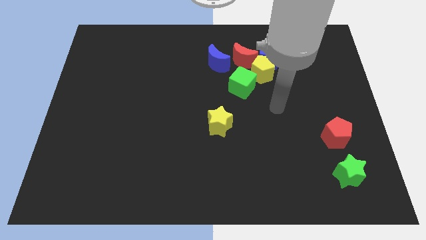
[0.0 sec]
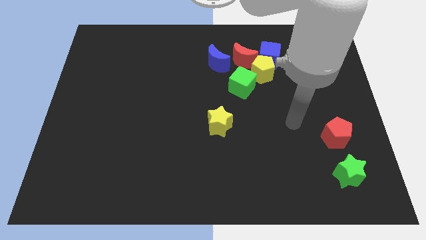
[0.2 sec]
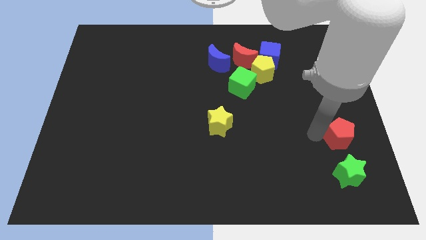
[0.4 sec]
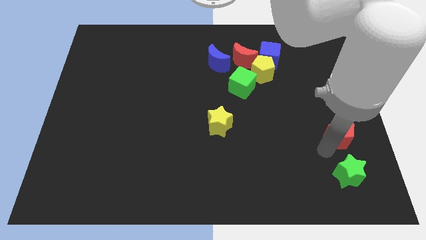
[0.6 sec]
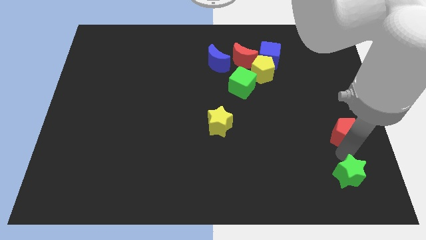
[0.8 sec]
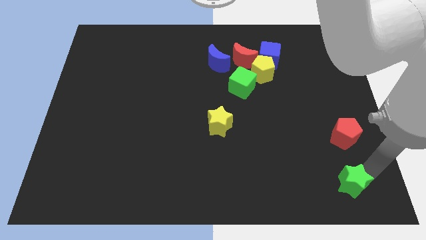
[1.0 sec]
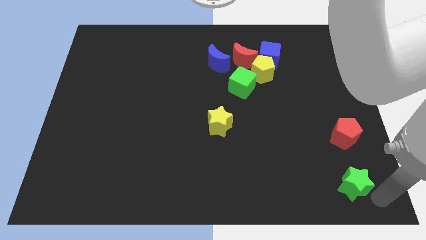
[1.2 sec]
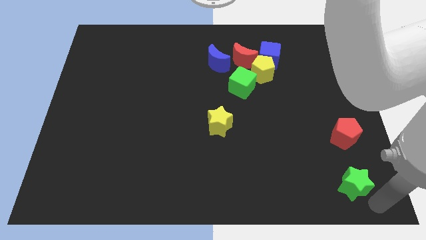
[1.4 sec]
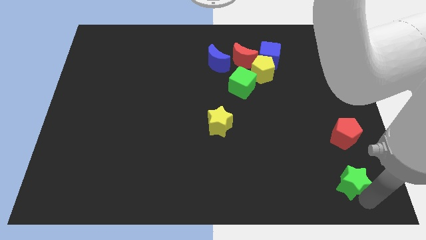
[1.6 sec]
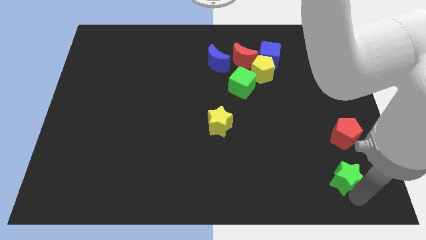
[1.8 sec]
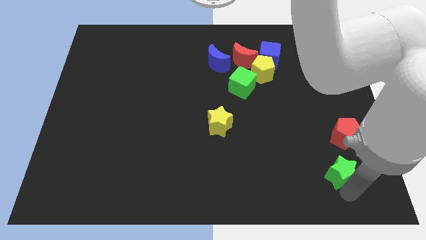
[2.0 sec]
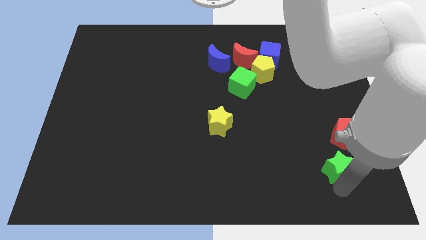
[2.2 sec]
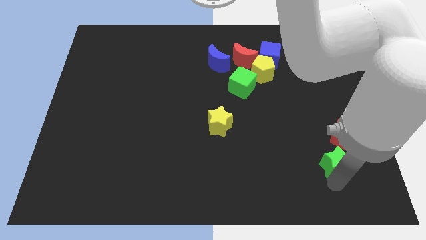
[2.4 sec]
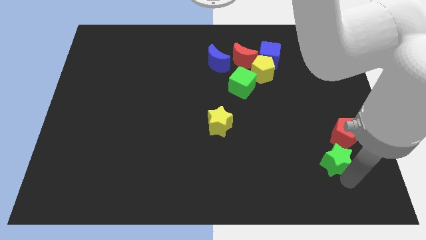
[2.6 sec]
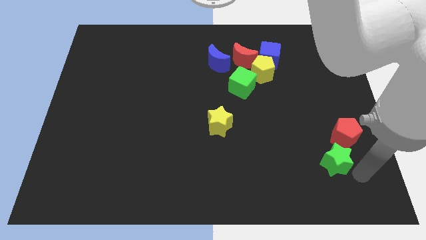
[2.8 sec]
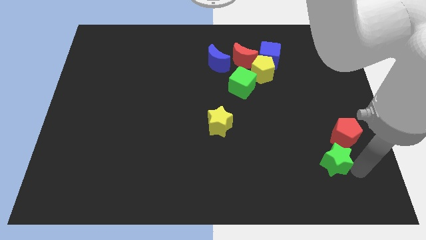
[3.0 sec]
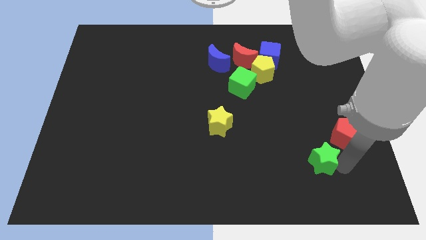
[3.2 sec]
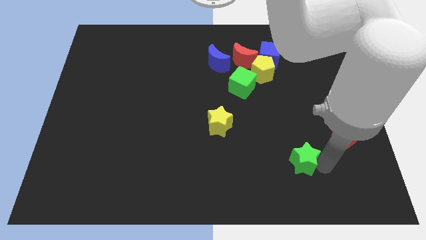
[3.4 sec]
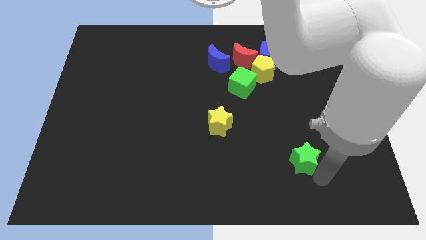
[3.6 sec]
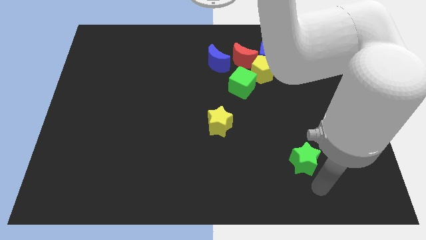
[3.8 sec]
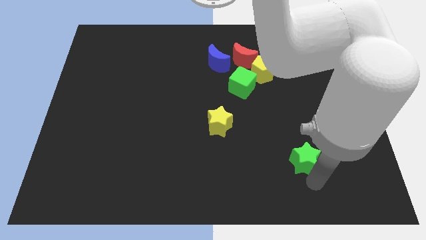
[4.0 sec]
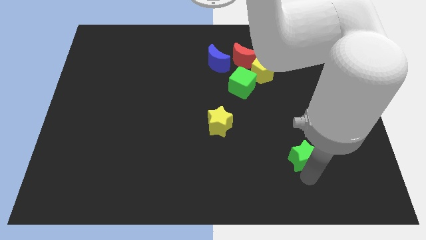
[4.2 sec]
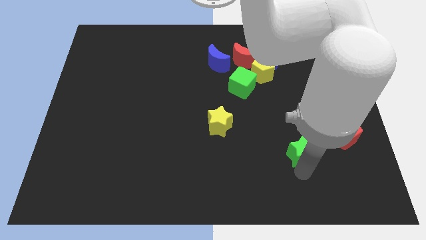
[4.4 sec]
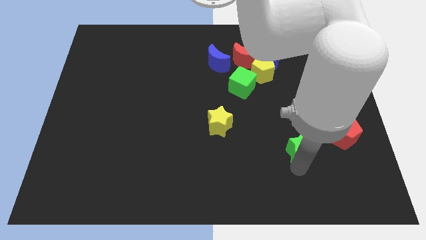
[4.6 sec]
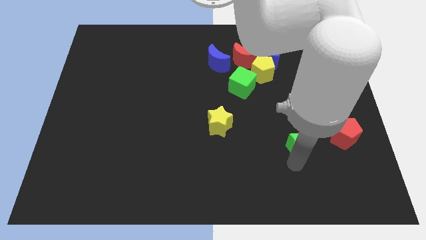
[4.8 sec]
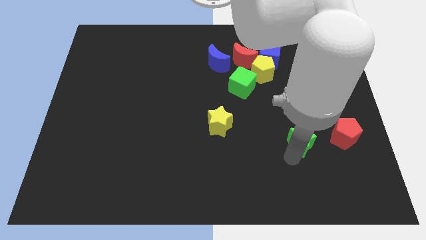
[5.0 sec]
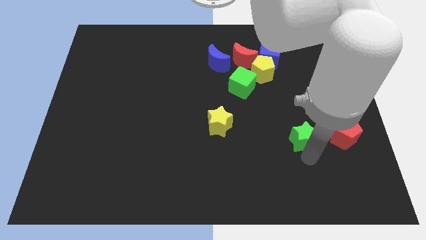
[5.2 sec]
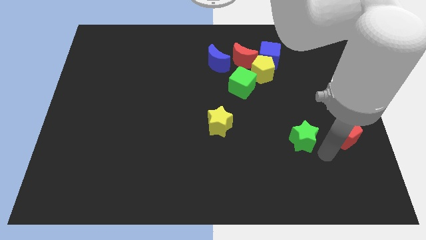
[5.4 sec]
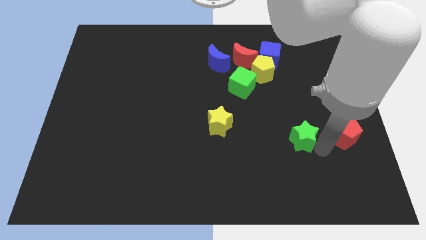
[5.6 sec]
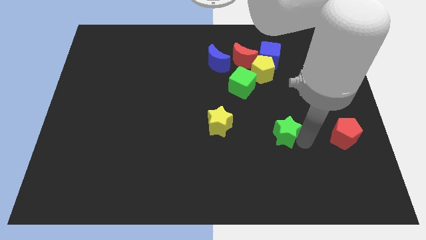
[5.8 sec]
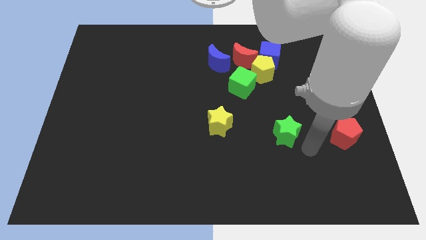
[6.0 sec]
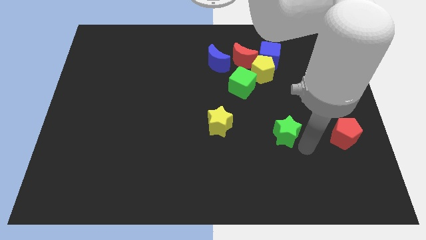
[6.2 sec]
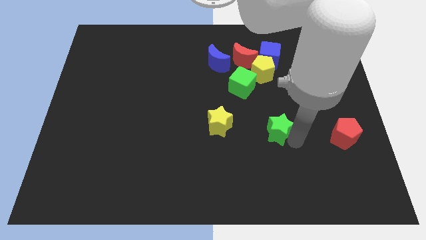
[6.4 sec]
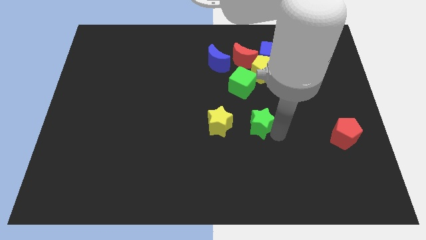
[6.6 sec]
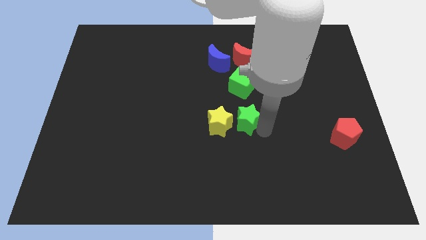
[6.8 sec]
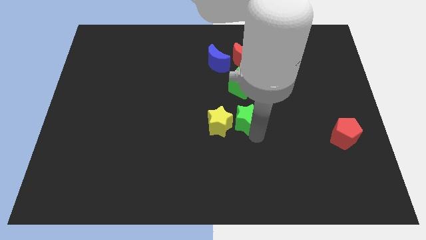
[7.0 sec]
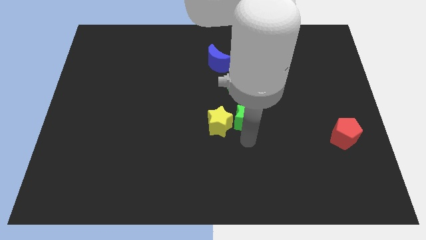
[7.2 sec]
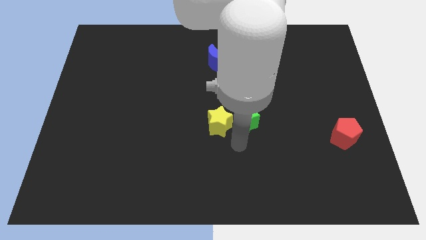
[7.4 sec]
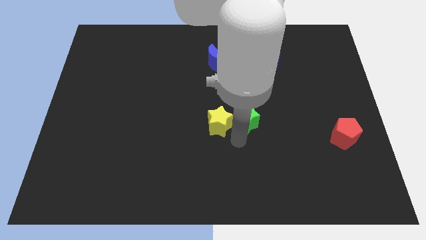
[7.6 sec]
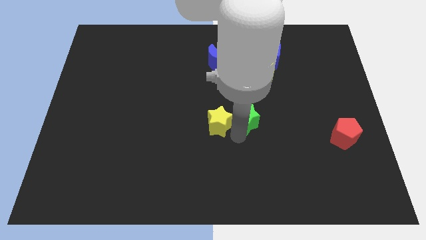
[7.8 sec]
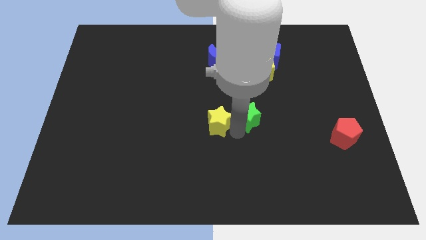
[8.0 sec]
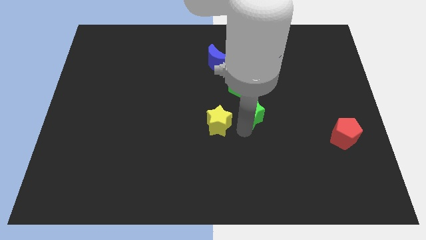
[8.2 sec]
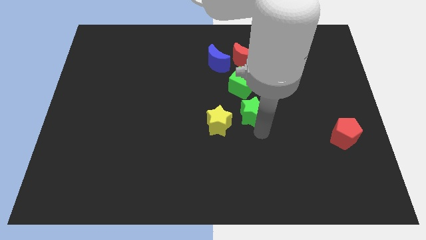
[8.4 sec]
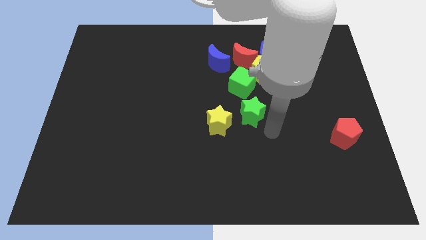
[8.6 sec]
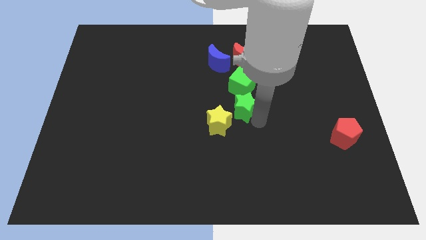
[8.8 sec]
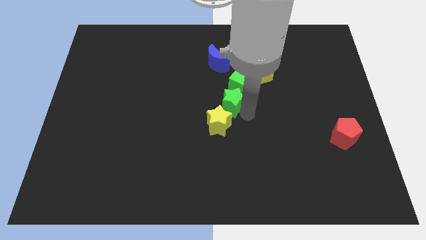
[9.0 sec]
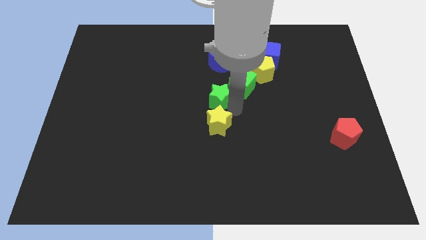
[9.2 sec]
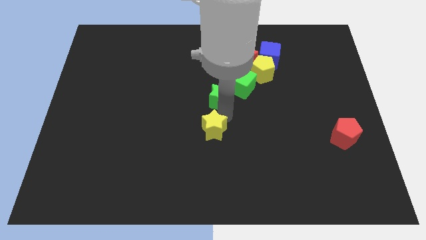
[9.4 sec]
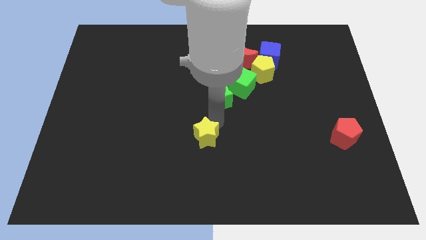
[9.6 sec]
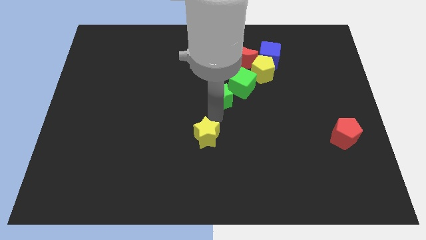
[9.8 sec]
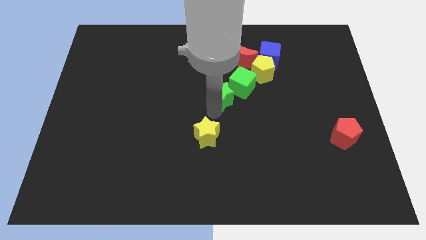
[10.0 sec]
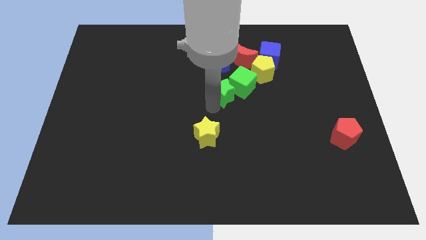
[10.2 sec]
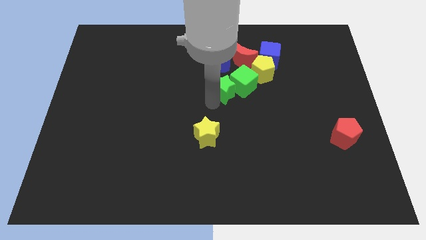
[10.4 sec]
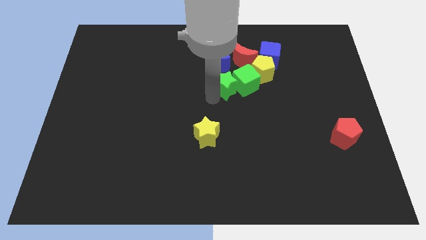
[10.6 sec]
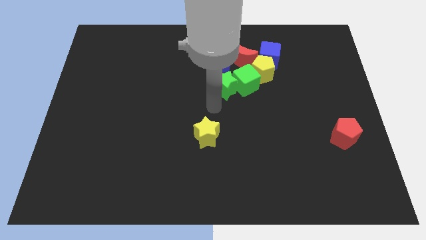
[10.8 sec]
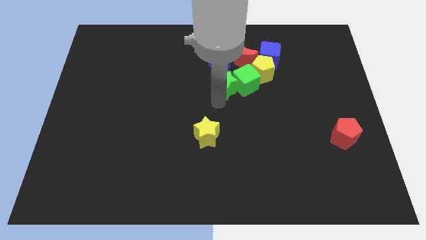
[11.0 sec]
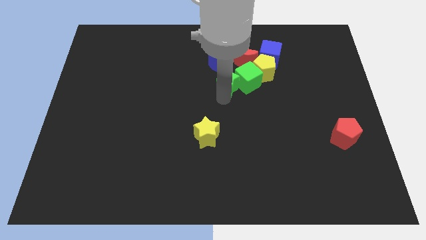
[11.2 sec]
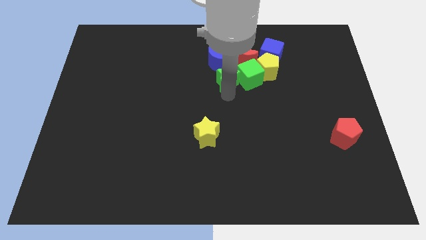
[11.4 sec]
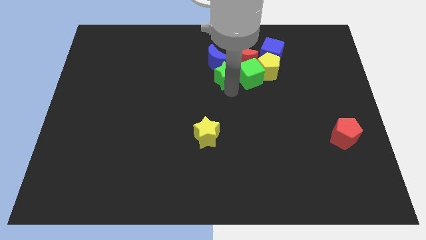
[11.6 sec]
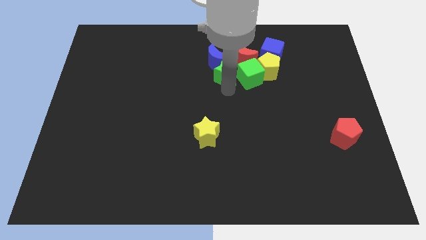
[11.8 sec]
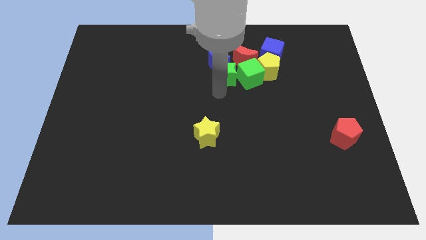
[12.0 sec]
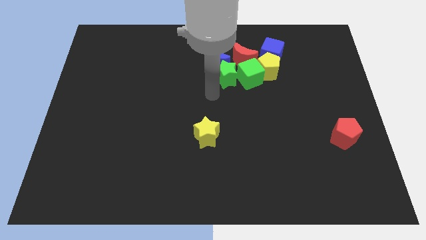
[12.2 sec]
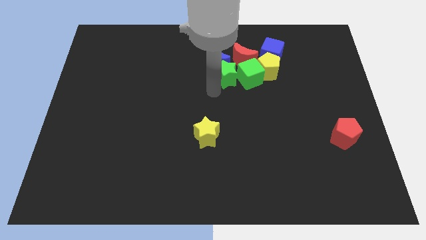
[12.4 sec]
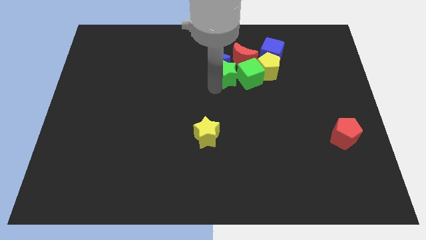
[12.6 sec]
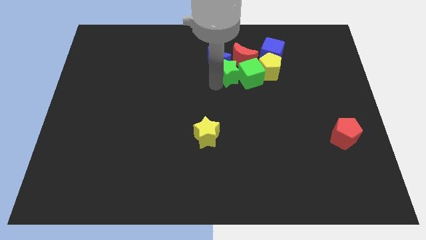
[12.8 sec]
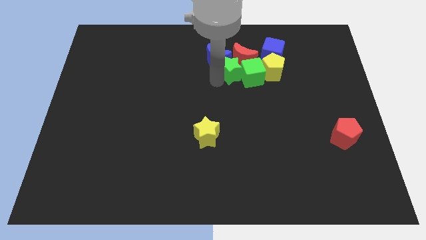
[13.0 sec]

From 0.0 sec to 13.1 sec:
put the green star next to the red moon
